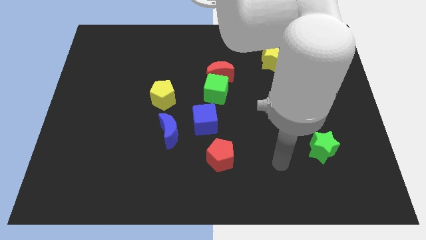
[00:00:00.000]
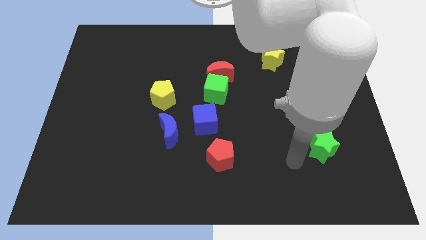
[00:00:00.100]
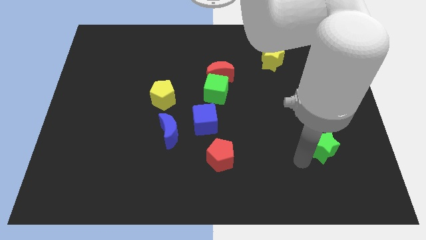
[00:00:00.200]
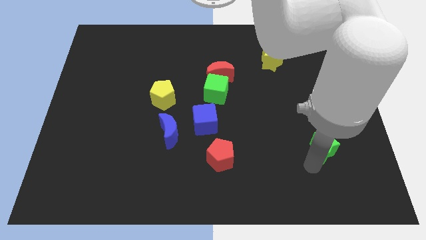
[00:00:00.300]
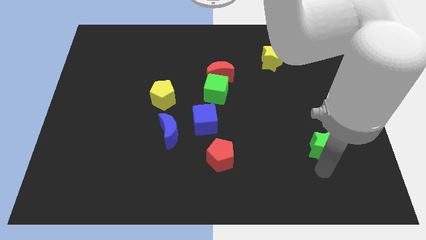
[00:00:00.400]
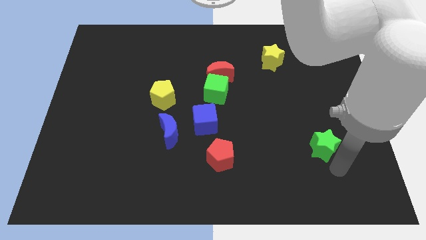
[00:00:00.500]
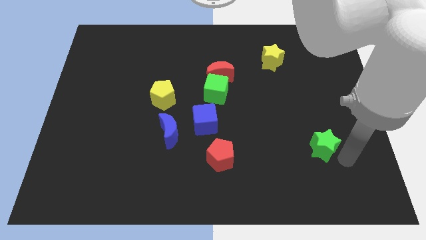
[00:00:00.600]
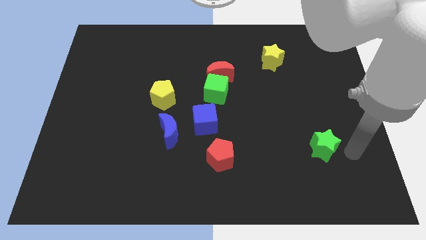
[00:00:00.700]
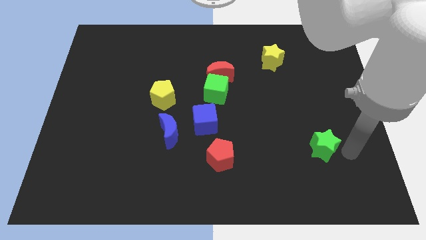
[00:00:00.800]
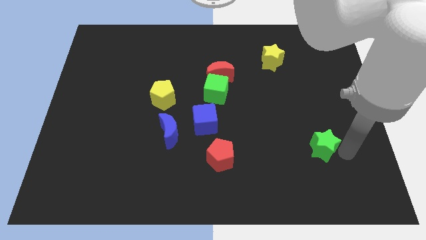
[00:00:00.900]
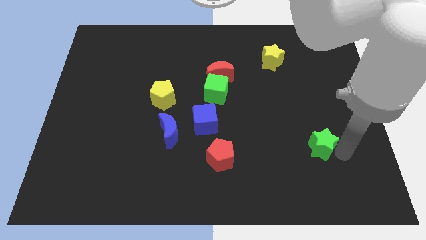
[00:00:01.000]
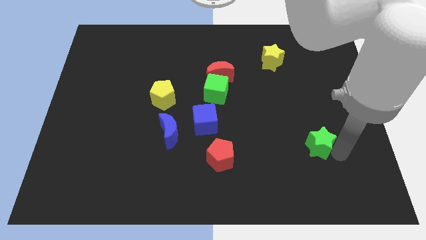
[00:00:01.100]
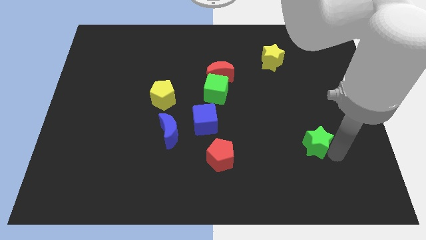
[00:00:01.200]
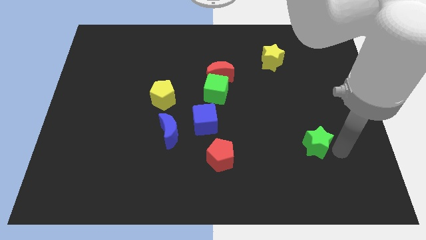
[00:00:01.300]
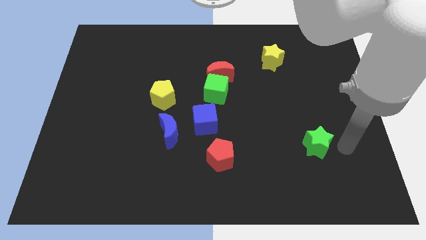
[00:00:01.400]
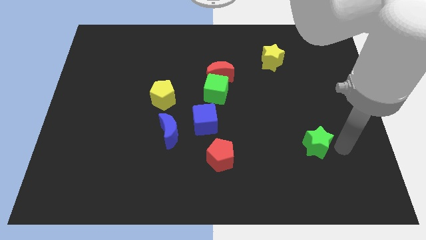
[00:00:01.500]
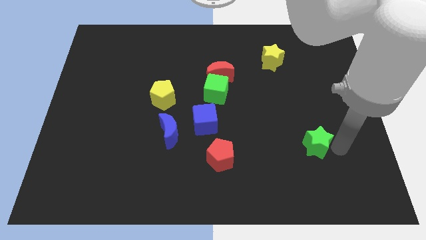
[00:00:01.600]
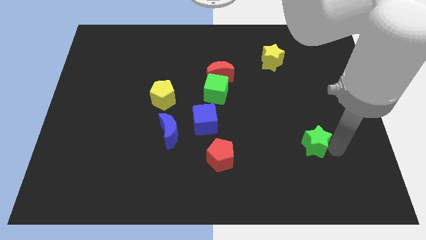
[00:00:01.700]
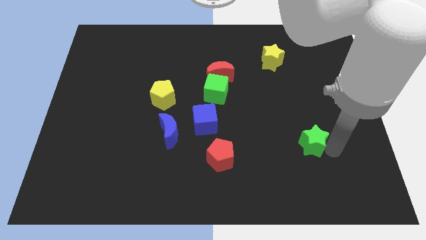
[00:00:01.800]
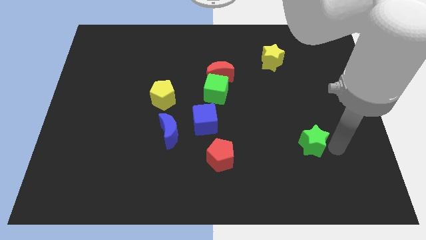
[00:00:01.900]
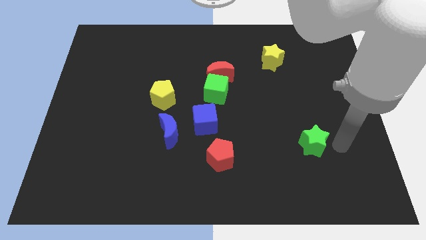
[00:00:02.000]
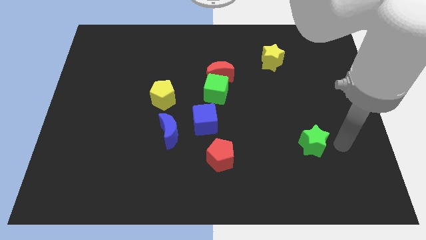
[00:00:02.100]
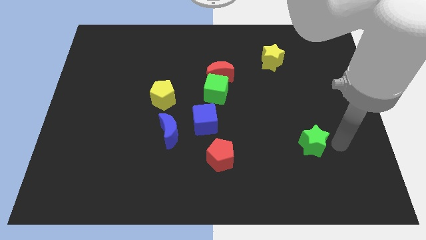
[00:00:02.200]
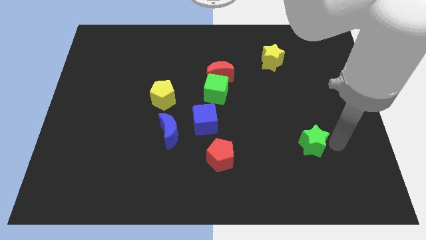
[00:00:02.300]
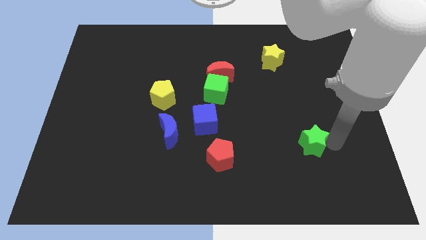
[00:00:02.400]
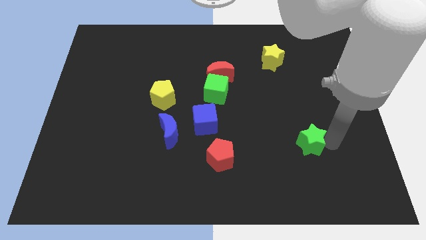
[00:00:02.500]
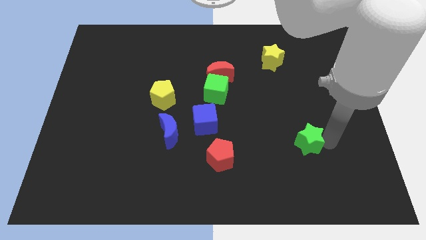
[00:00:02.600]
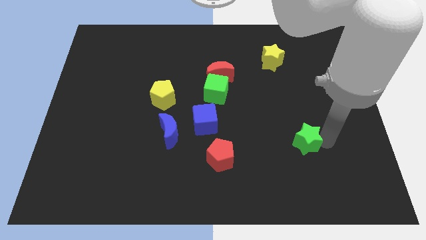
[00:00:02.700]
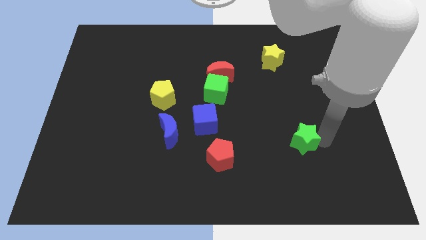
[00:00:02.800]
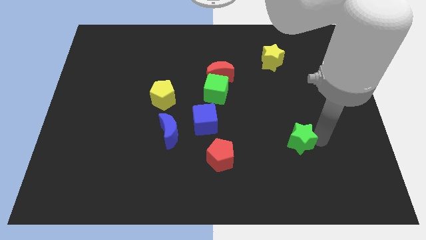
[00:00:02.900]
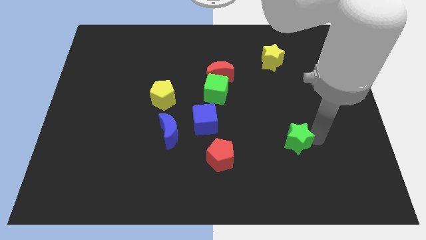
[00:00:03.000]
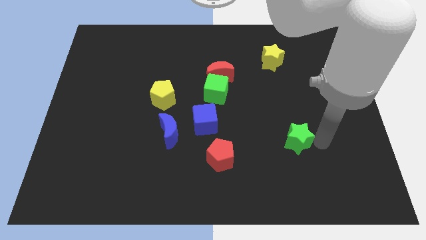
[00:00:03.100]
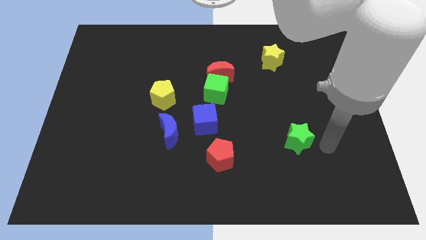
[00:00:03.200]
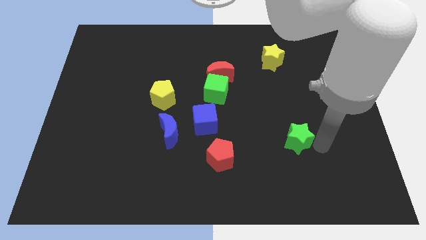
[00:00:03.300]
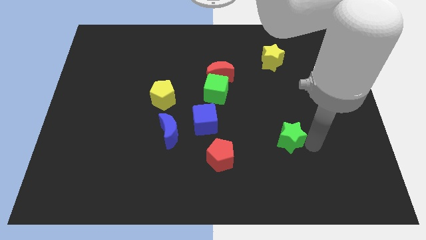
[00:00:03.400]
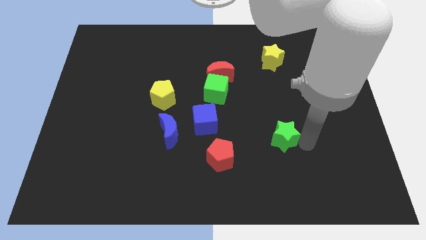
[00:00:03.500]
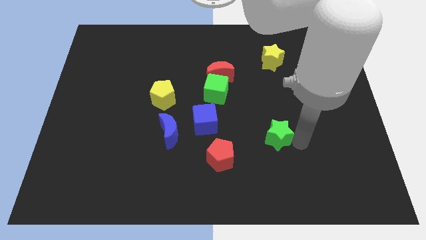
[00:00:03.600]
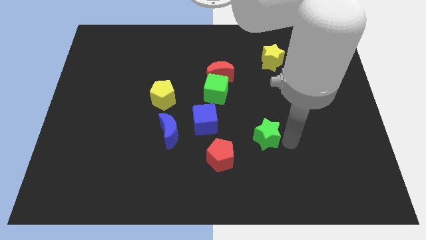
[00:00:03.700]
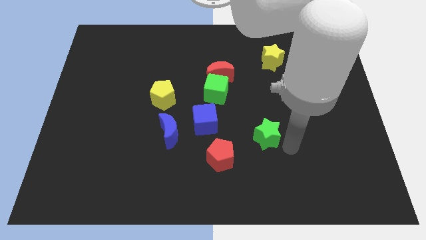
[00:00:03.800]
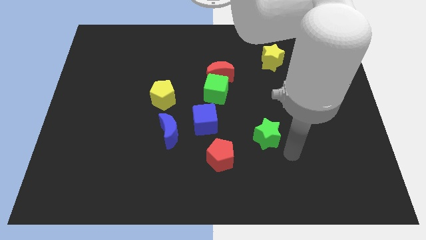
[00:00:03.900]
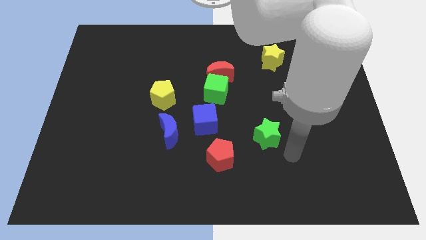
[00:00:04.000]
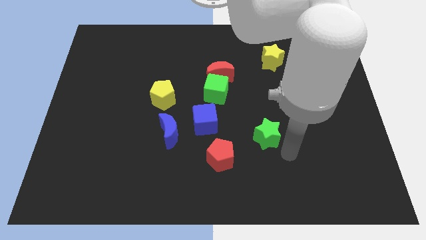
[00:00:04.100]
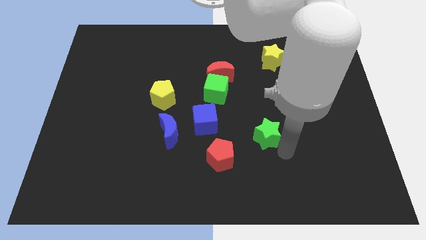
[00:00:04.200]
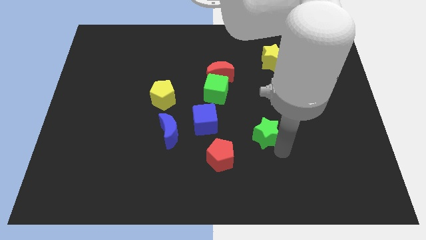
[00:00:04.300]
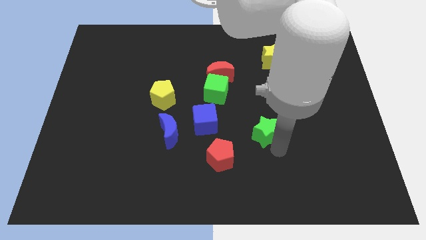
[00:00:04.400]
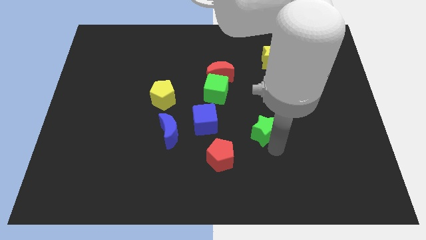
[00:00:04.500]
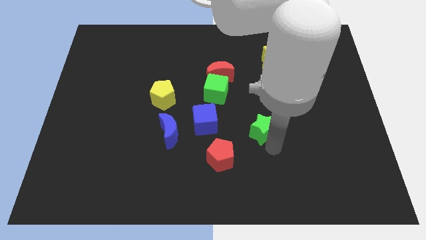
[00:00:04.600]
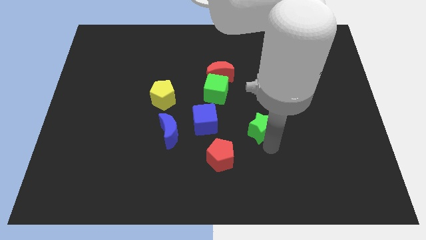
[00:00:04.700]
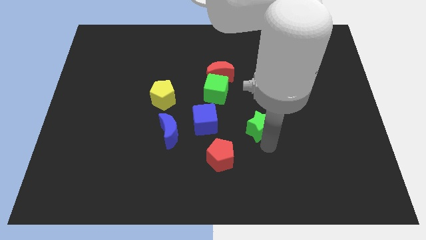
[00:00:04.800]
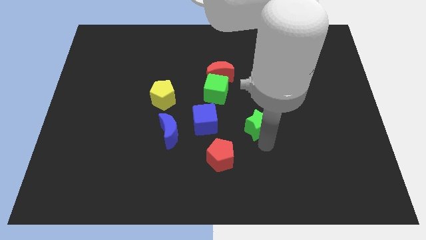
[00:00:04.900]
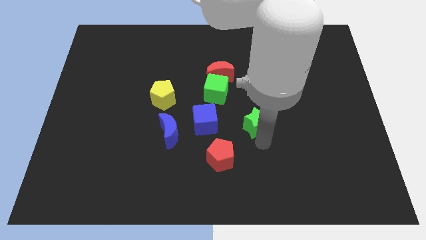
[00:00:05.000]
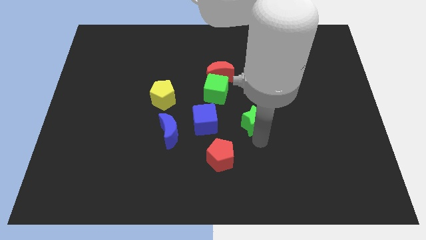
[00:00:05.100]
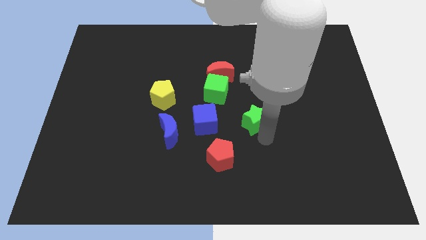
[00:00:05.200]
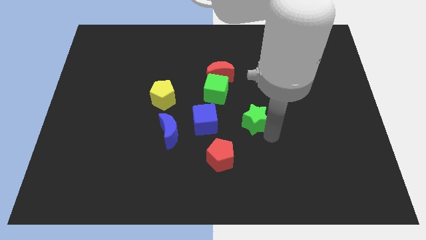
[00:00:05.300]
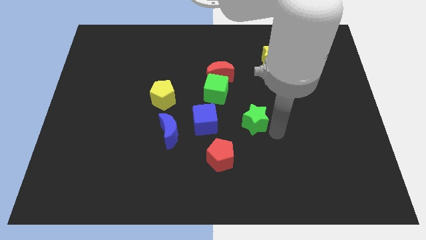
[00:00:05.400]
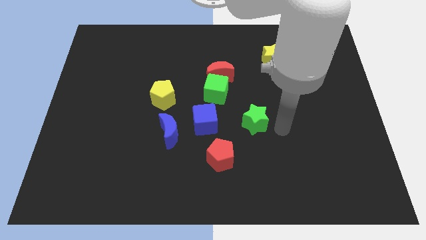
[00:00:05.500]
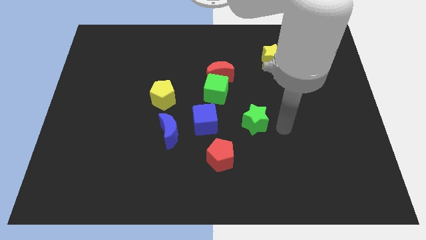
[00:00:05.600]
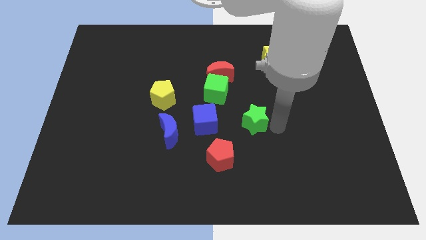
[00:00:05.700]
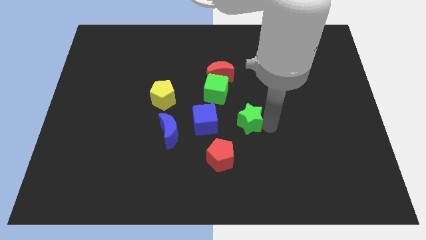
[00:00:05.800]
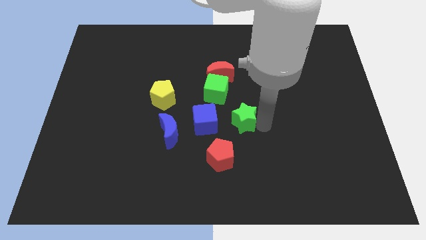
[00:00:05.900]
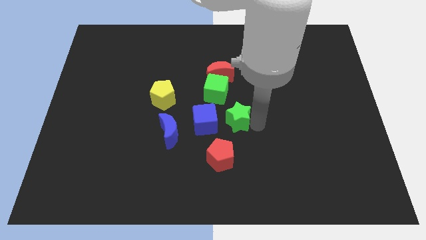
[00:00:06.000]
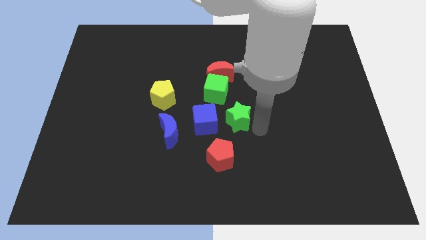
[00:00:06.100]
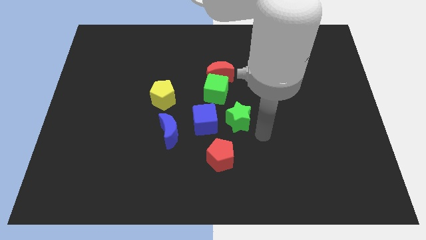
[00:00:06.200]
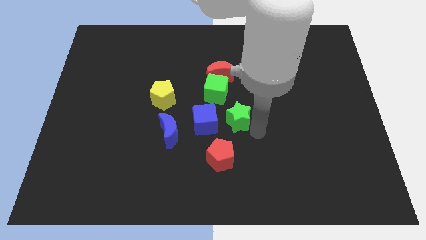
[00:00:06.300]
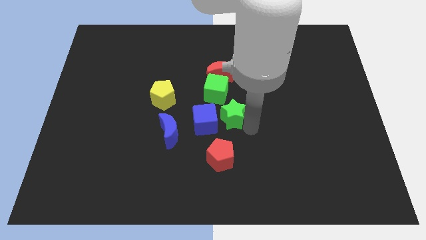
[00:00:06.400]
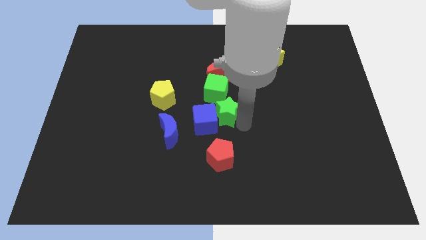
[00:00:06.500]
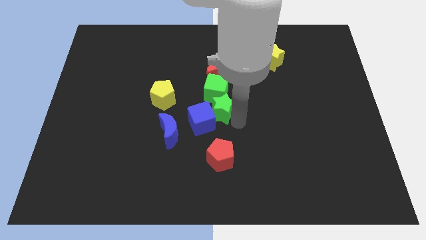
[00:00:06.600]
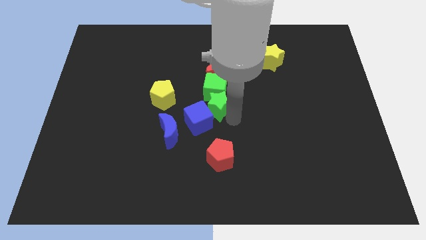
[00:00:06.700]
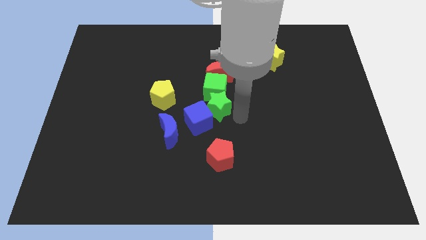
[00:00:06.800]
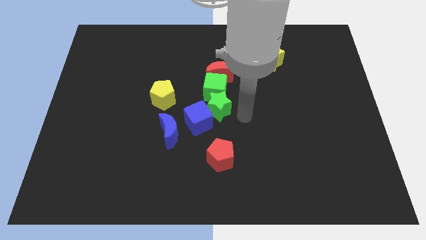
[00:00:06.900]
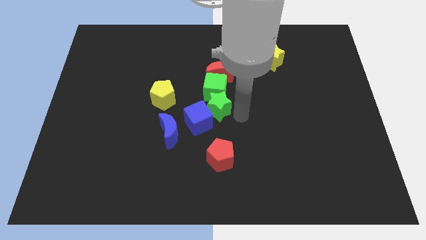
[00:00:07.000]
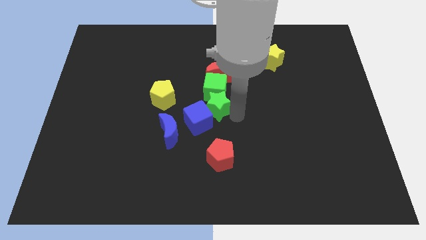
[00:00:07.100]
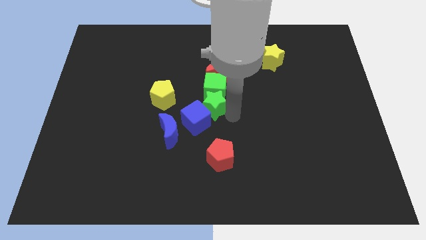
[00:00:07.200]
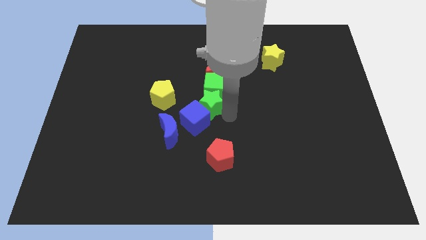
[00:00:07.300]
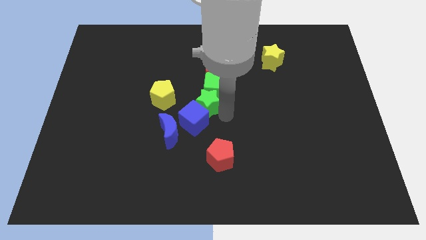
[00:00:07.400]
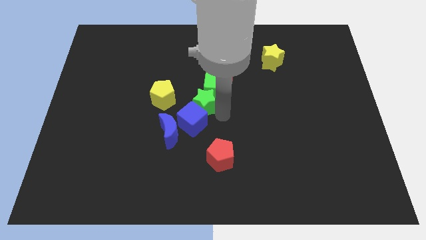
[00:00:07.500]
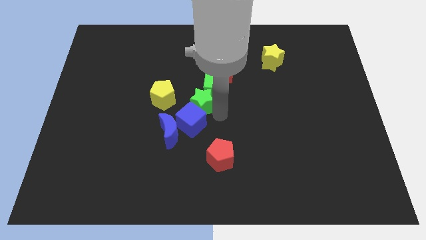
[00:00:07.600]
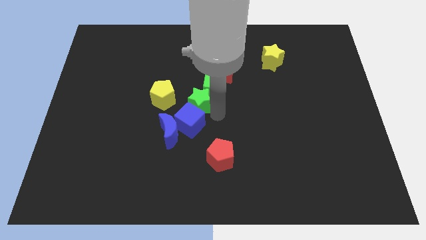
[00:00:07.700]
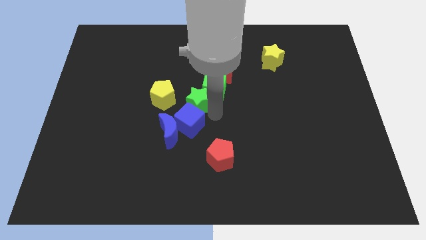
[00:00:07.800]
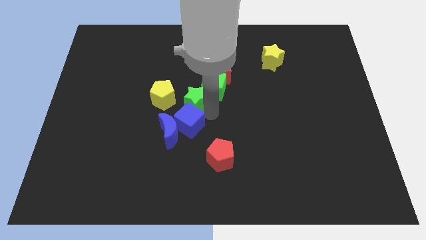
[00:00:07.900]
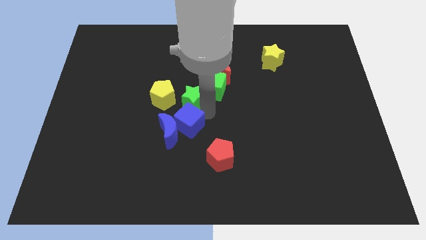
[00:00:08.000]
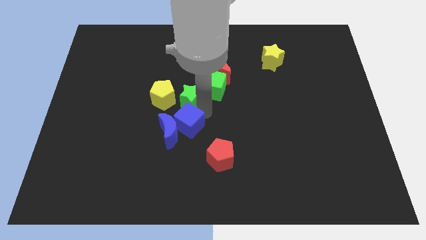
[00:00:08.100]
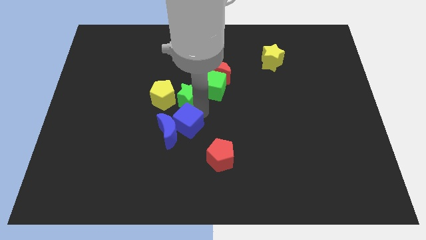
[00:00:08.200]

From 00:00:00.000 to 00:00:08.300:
slide the green star to the yellow pentagon

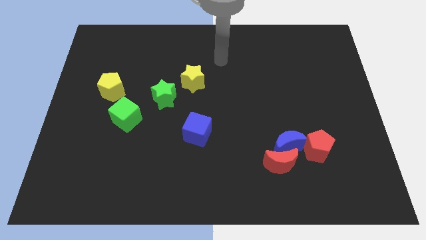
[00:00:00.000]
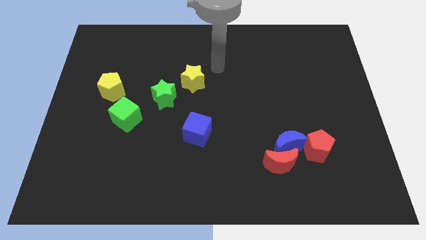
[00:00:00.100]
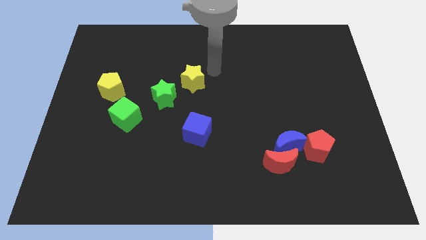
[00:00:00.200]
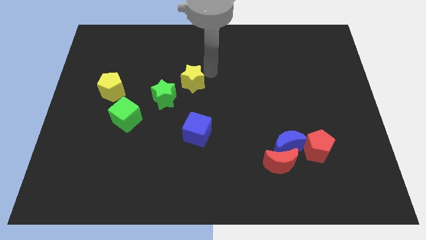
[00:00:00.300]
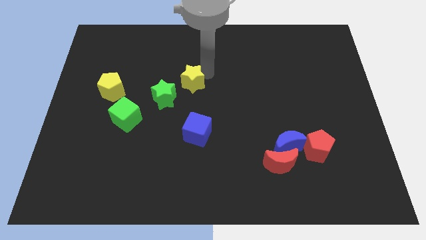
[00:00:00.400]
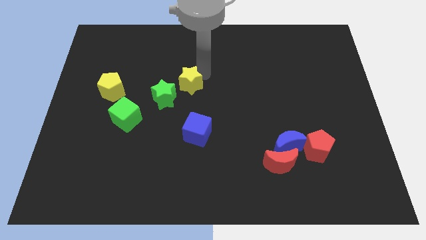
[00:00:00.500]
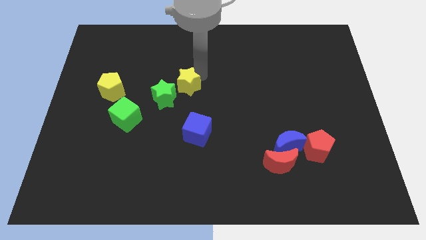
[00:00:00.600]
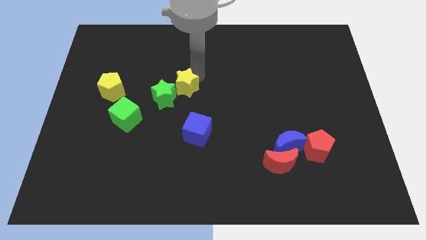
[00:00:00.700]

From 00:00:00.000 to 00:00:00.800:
slide the yellow star next to the green star
